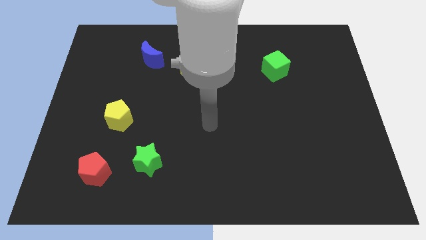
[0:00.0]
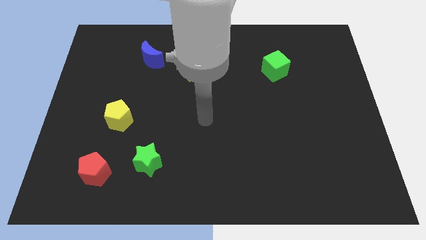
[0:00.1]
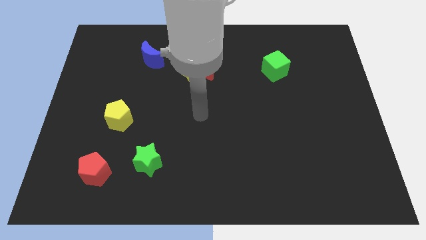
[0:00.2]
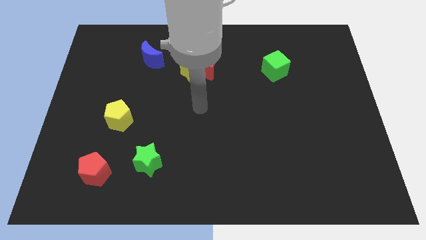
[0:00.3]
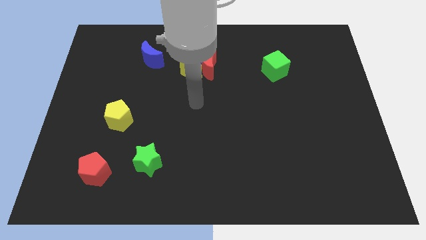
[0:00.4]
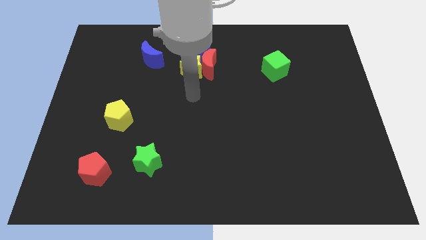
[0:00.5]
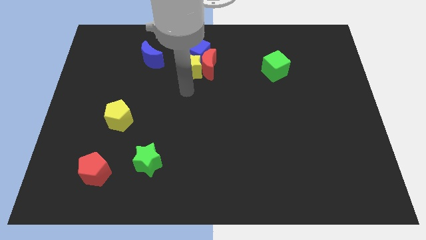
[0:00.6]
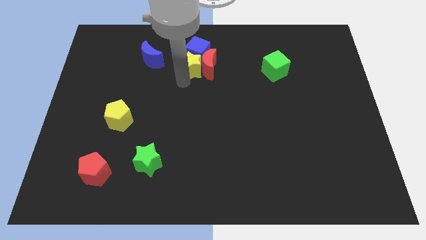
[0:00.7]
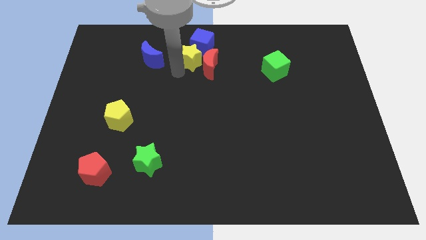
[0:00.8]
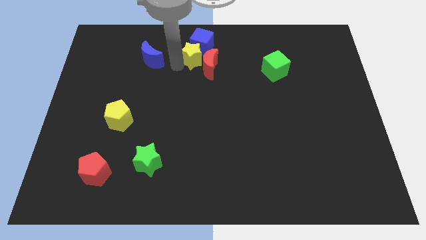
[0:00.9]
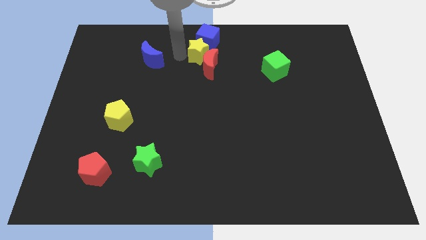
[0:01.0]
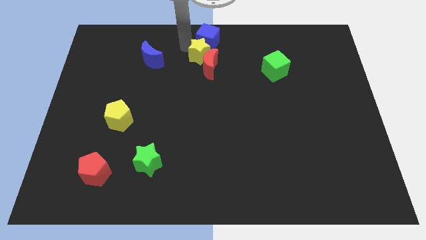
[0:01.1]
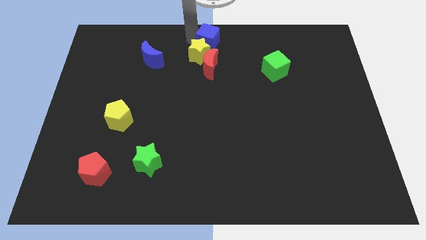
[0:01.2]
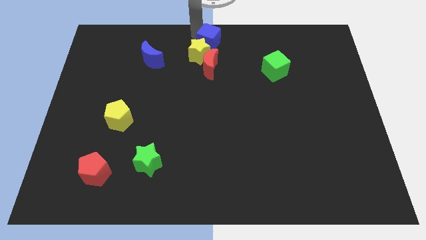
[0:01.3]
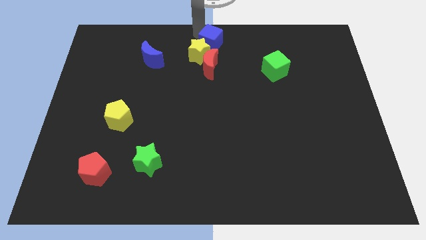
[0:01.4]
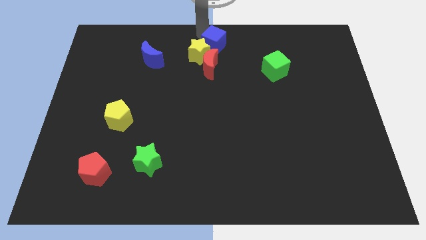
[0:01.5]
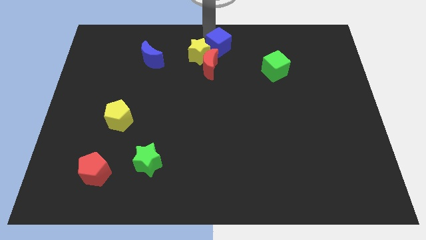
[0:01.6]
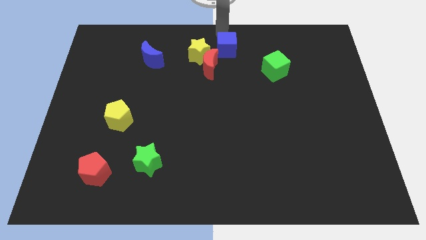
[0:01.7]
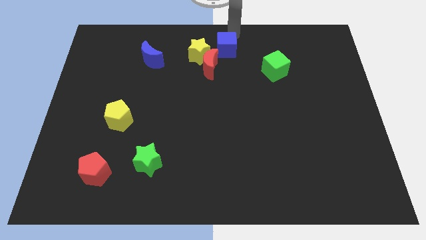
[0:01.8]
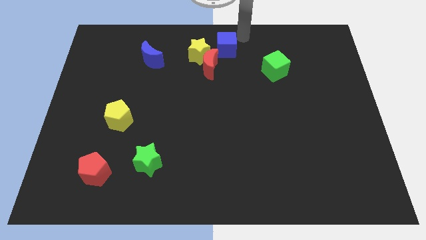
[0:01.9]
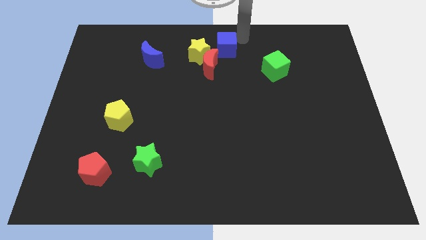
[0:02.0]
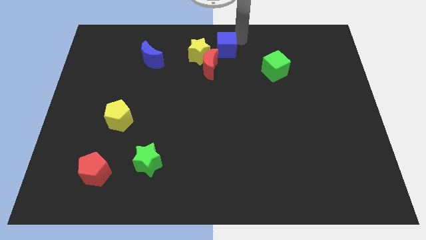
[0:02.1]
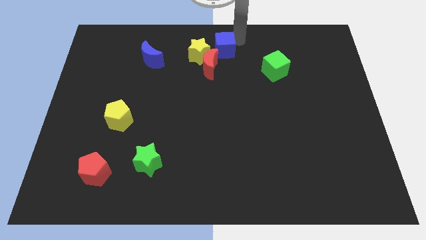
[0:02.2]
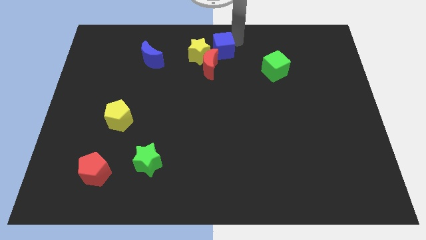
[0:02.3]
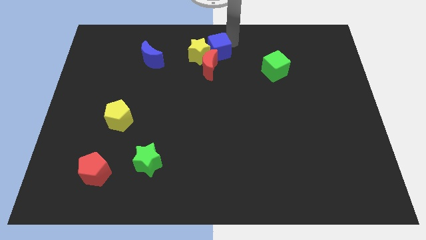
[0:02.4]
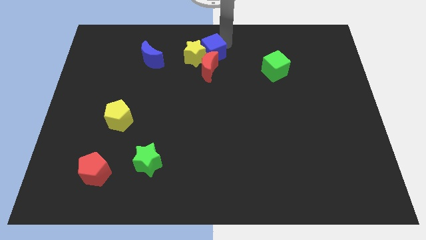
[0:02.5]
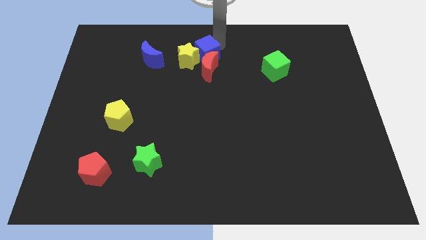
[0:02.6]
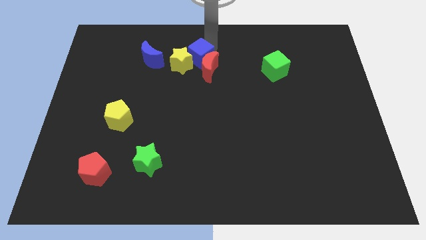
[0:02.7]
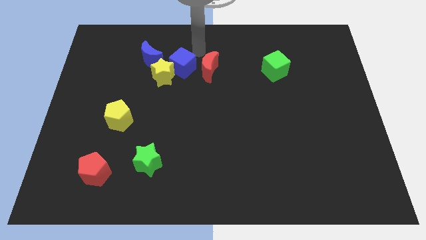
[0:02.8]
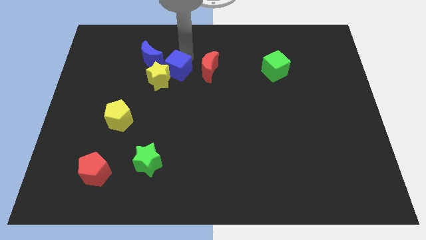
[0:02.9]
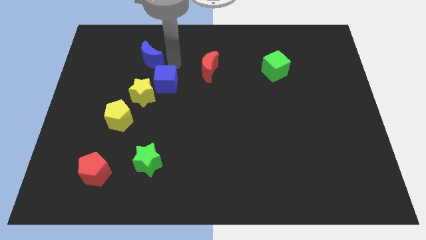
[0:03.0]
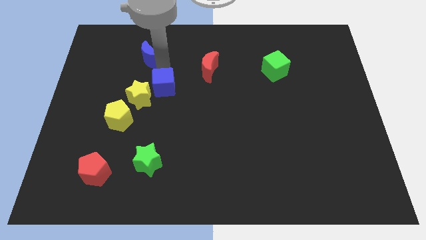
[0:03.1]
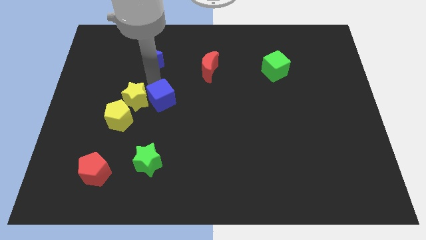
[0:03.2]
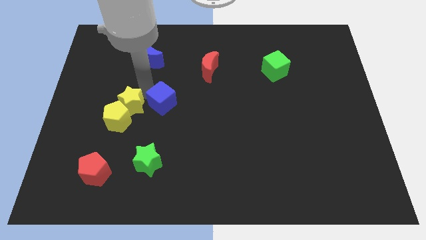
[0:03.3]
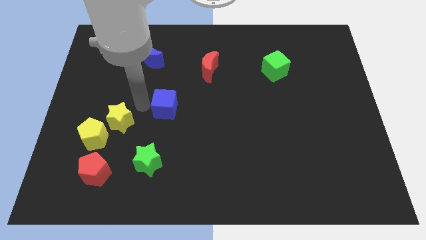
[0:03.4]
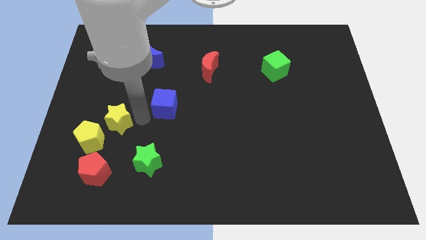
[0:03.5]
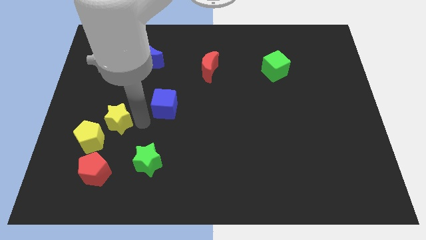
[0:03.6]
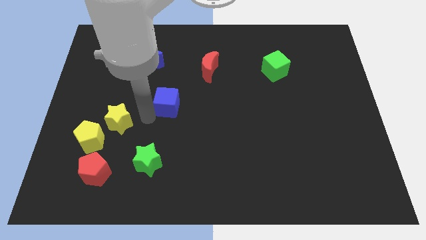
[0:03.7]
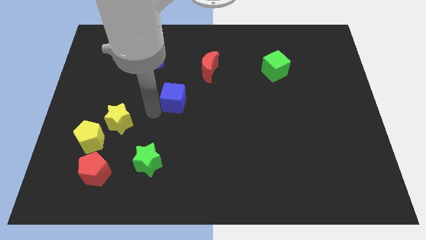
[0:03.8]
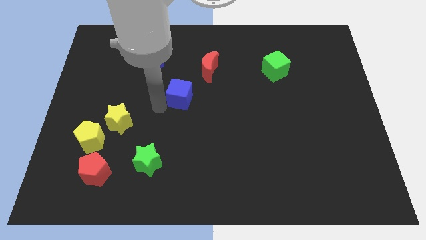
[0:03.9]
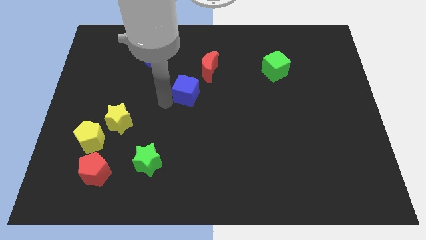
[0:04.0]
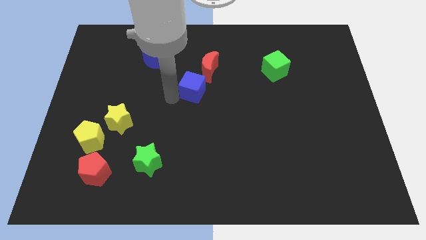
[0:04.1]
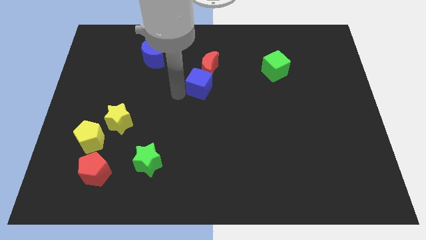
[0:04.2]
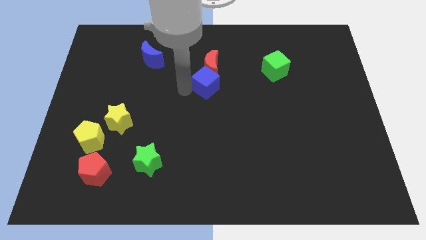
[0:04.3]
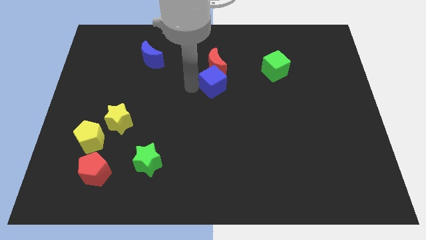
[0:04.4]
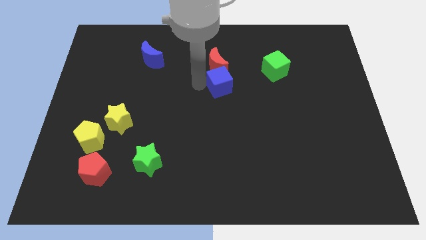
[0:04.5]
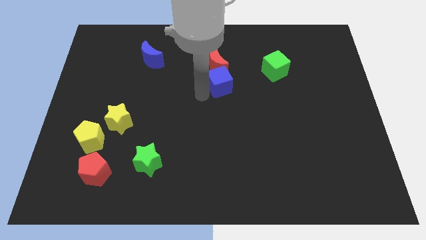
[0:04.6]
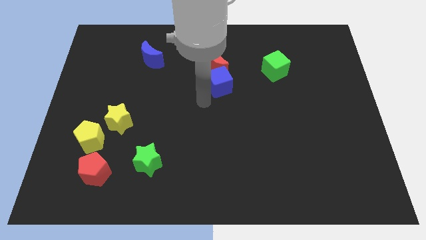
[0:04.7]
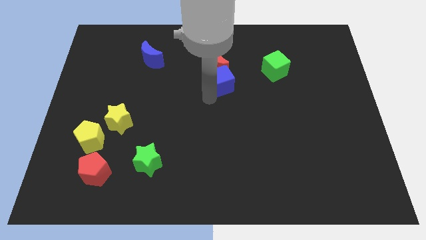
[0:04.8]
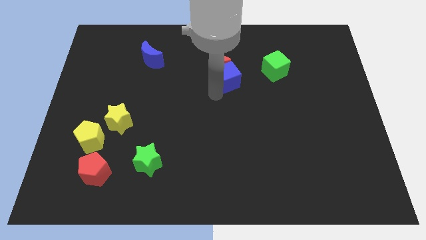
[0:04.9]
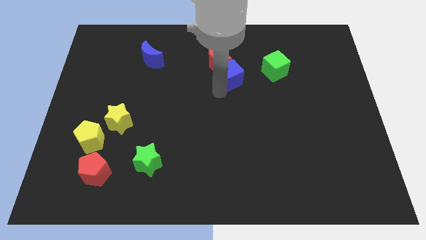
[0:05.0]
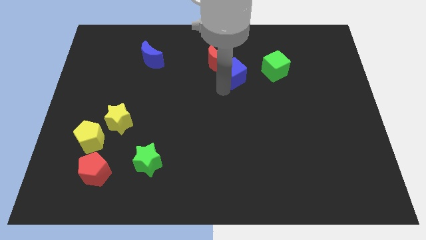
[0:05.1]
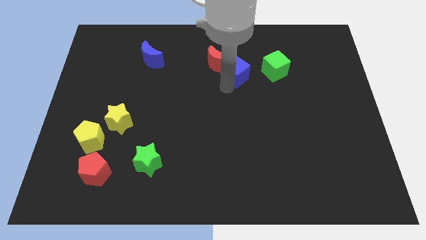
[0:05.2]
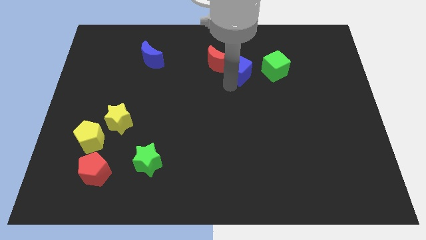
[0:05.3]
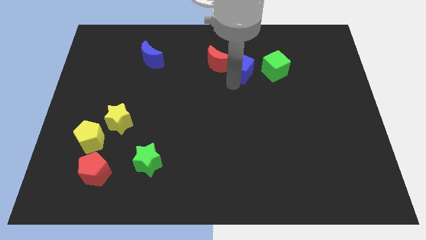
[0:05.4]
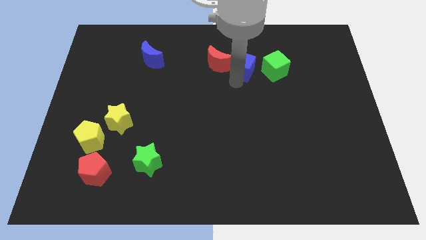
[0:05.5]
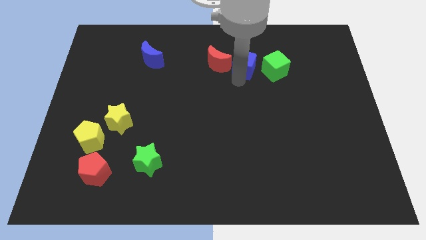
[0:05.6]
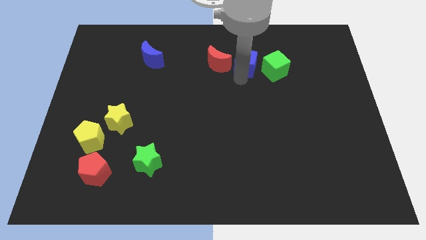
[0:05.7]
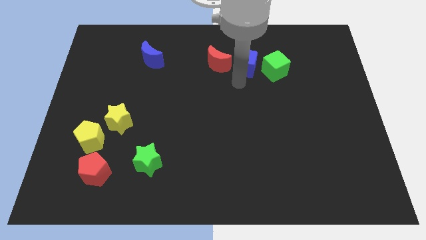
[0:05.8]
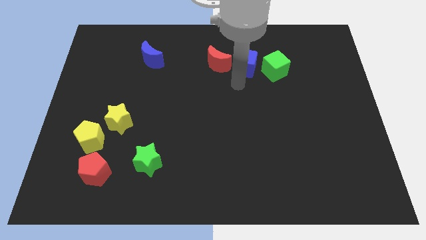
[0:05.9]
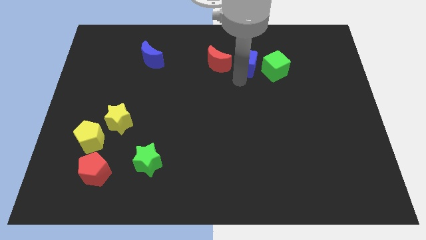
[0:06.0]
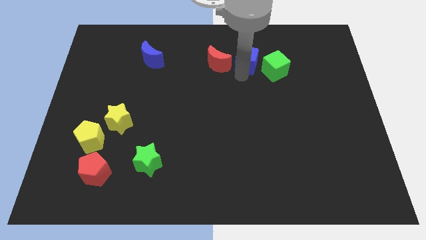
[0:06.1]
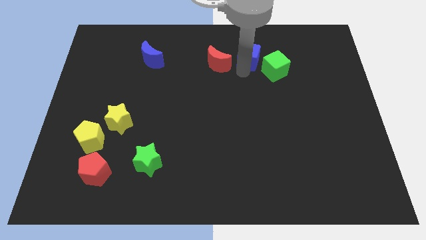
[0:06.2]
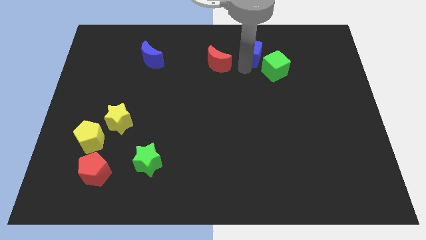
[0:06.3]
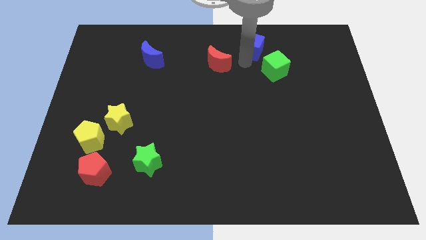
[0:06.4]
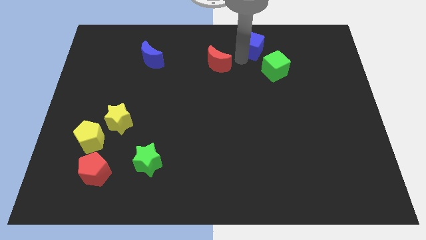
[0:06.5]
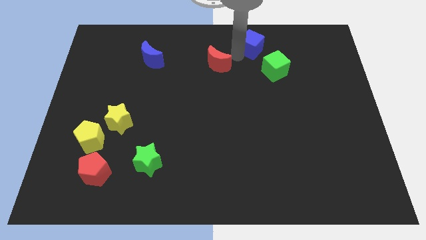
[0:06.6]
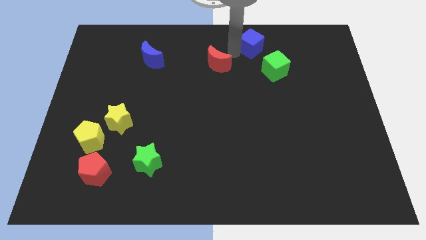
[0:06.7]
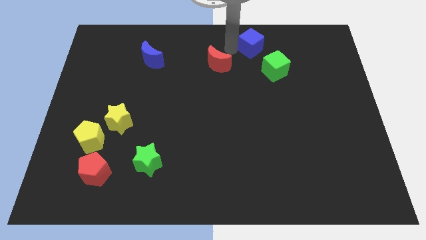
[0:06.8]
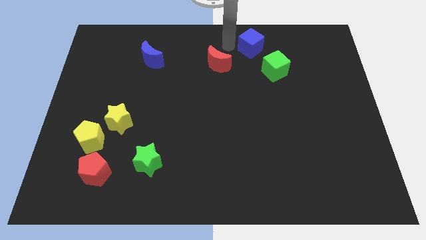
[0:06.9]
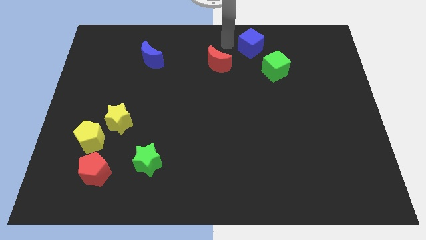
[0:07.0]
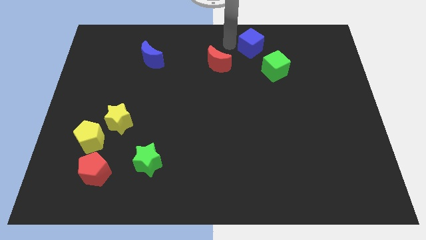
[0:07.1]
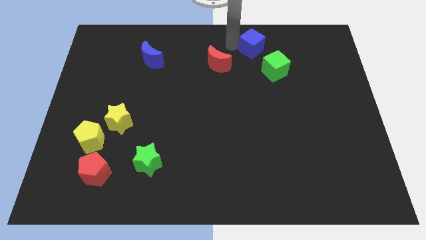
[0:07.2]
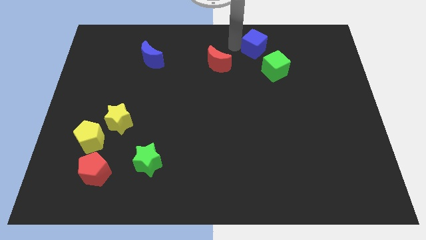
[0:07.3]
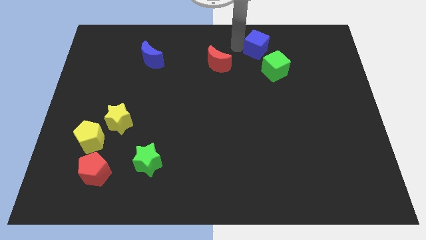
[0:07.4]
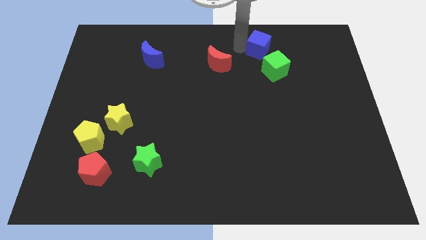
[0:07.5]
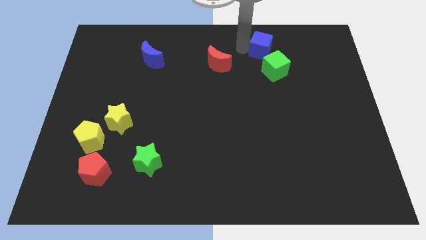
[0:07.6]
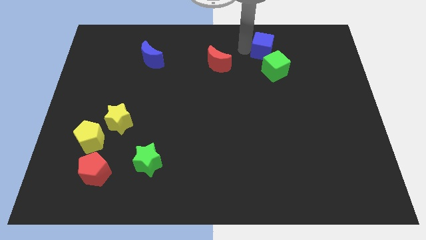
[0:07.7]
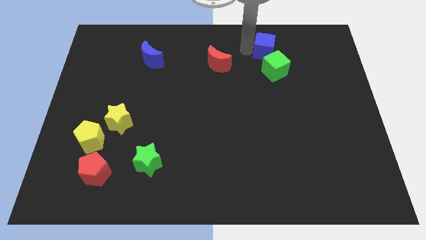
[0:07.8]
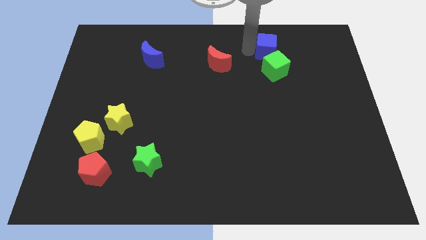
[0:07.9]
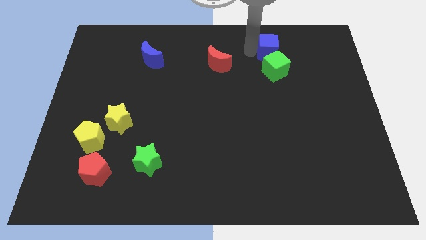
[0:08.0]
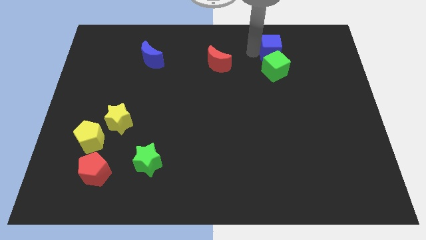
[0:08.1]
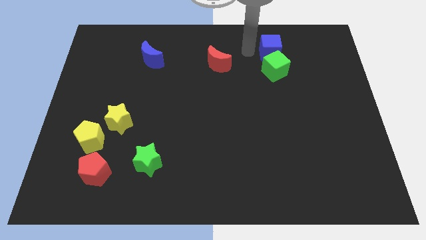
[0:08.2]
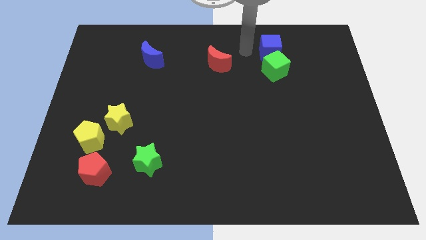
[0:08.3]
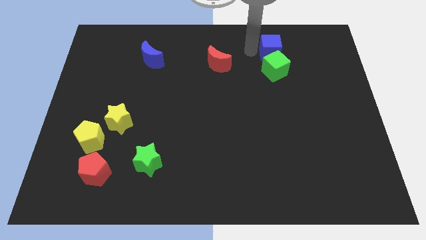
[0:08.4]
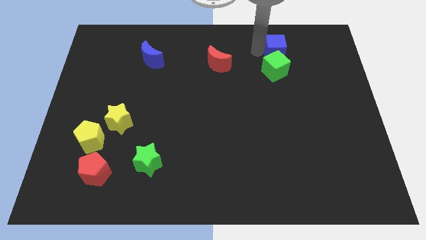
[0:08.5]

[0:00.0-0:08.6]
move the blue cube right
